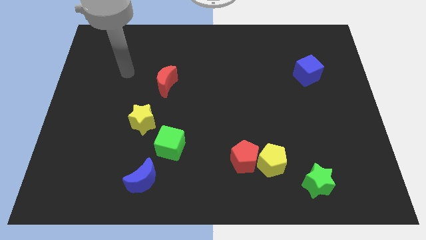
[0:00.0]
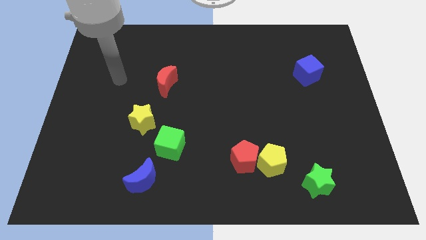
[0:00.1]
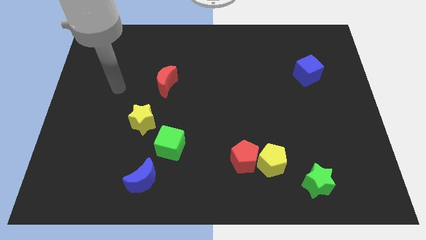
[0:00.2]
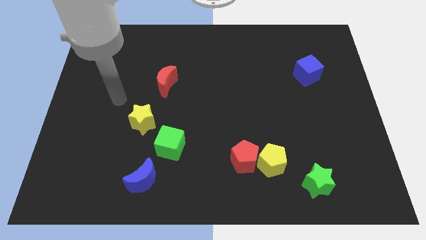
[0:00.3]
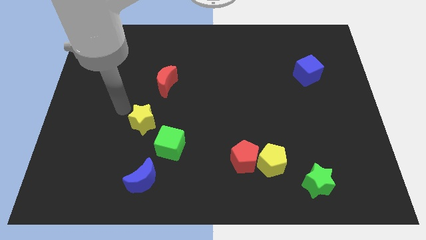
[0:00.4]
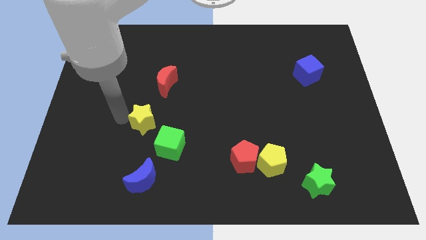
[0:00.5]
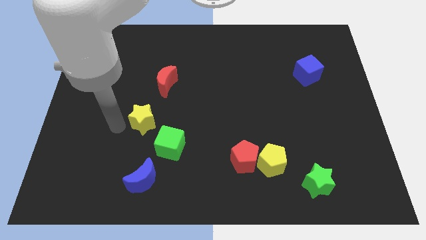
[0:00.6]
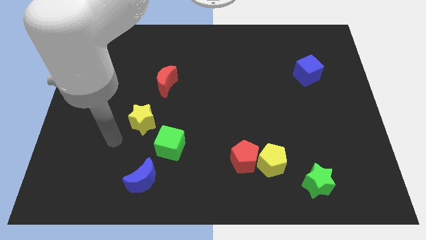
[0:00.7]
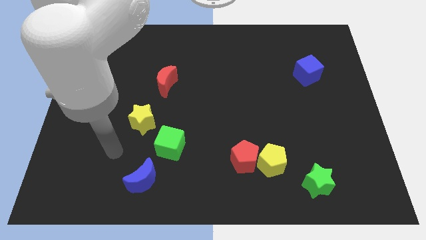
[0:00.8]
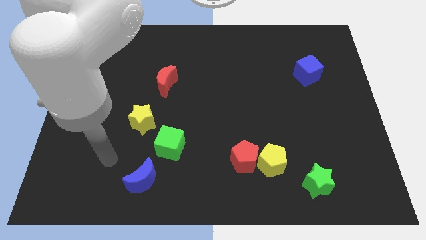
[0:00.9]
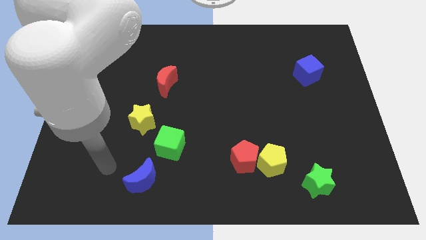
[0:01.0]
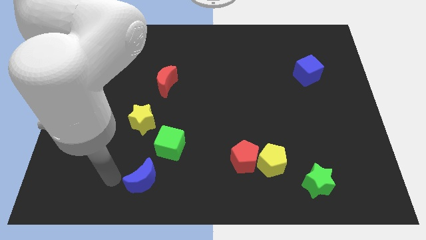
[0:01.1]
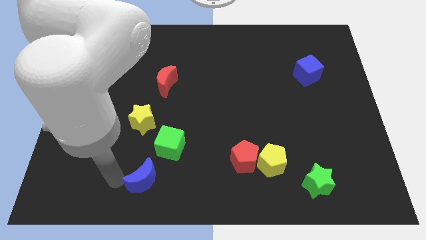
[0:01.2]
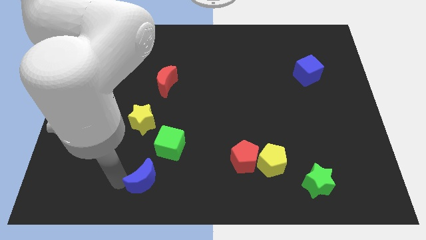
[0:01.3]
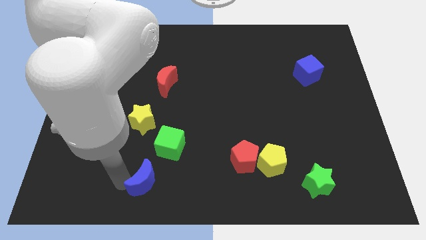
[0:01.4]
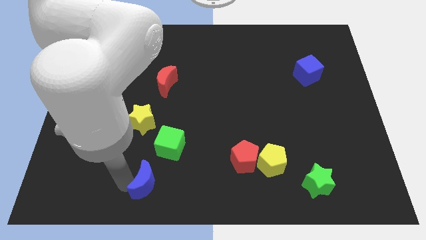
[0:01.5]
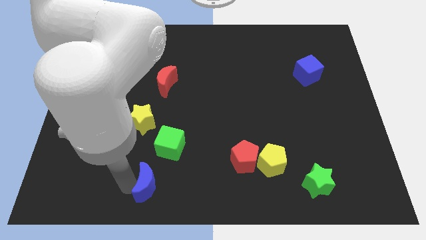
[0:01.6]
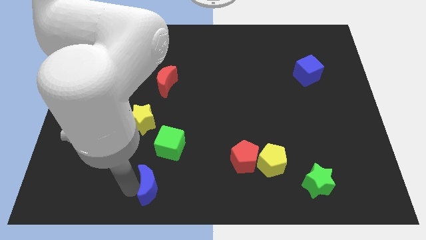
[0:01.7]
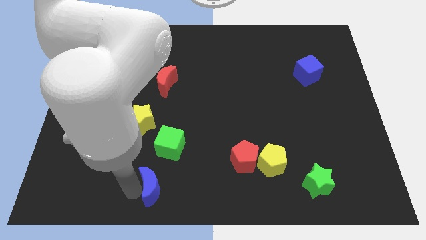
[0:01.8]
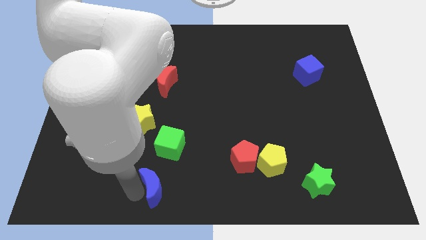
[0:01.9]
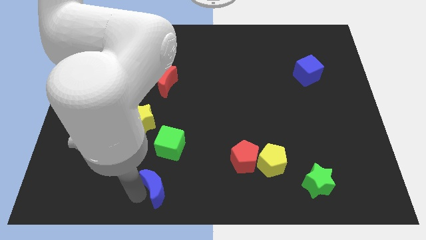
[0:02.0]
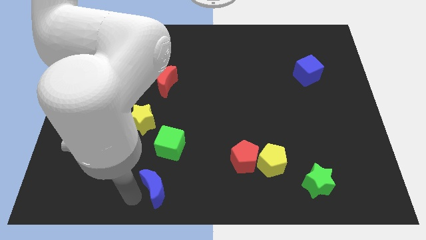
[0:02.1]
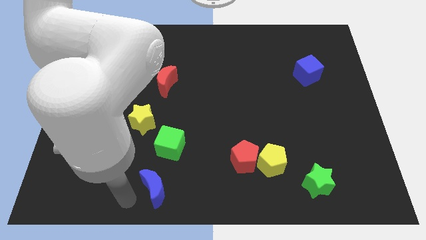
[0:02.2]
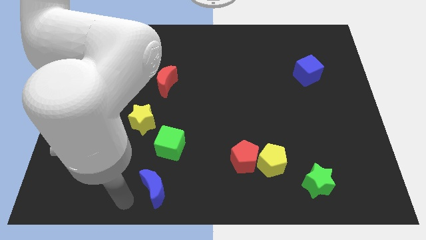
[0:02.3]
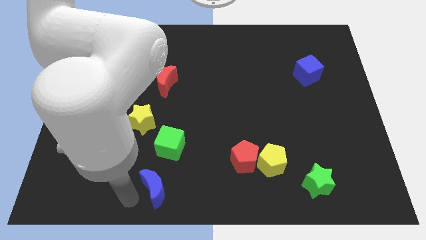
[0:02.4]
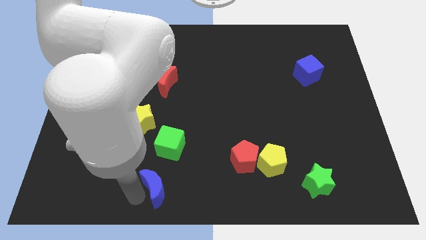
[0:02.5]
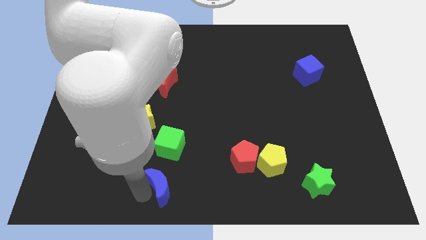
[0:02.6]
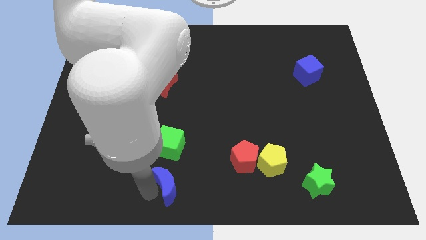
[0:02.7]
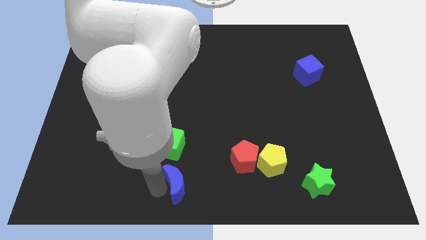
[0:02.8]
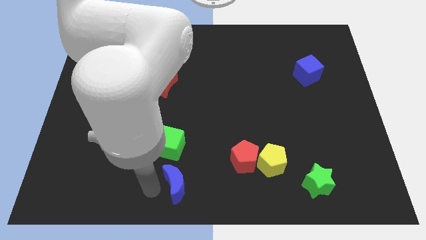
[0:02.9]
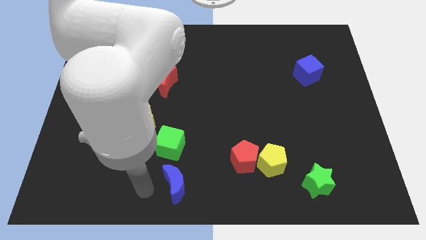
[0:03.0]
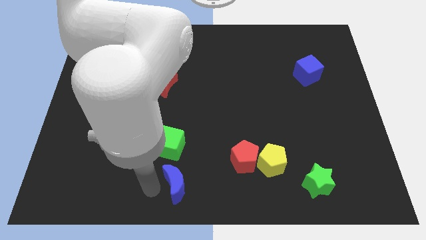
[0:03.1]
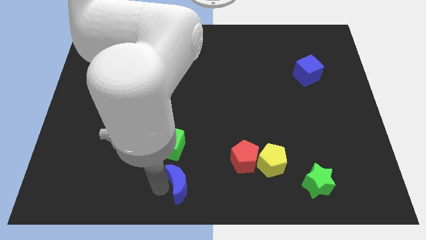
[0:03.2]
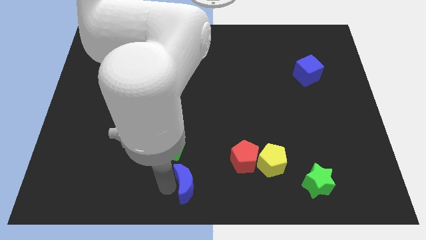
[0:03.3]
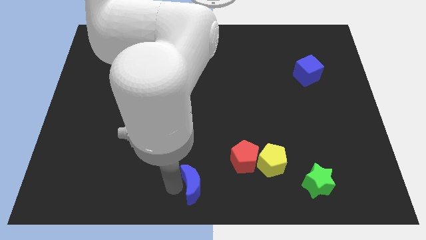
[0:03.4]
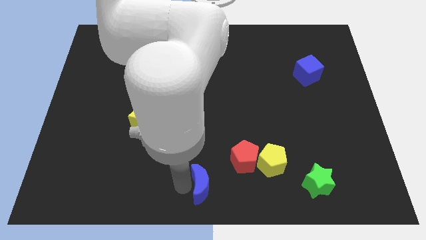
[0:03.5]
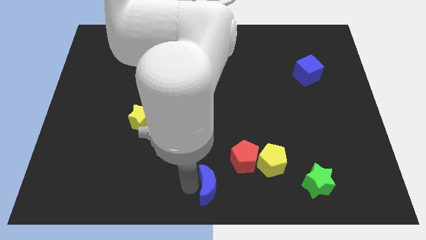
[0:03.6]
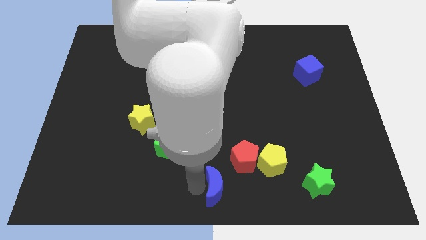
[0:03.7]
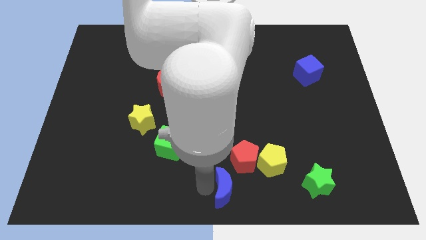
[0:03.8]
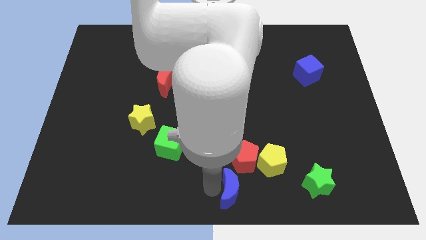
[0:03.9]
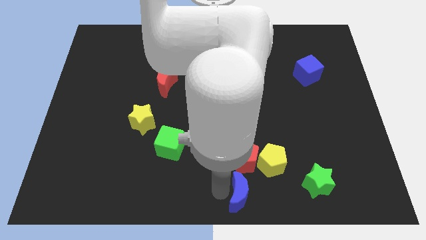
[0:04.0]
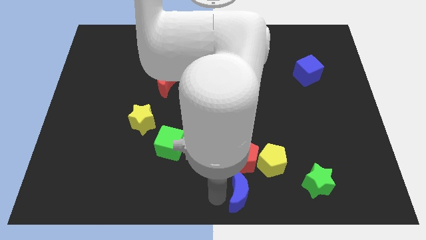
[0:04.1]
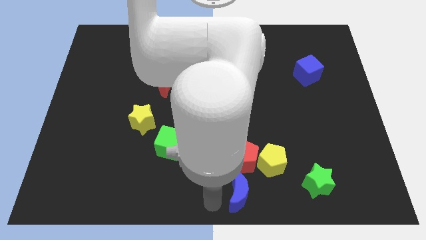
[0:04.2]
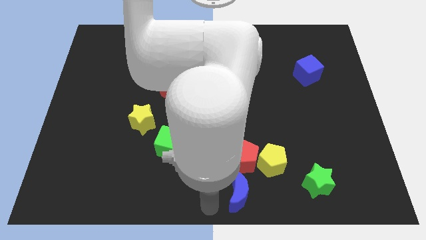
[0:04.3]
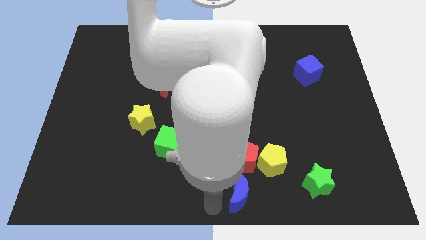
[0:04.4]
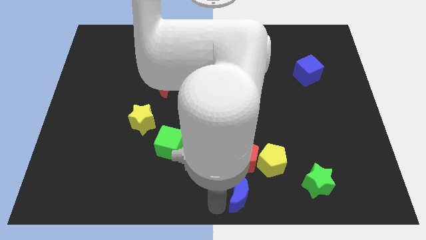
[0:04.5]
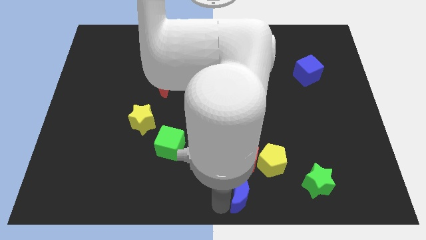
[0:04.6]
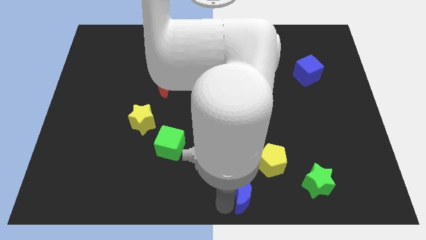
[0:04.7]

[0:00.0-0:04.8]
slide the blue moon to the left side of the green star

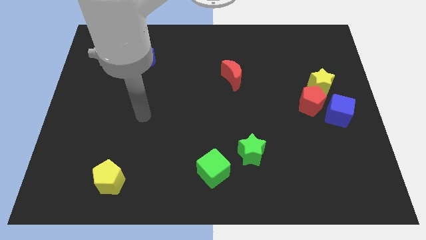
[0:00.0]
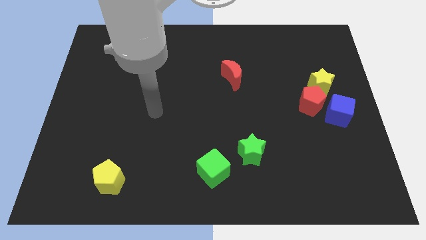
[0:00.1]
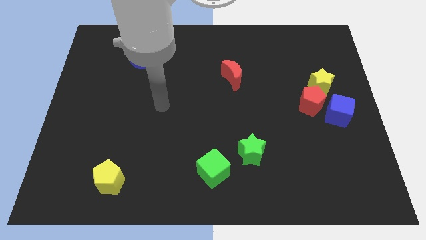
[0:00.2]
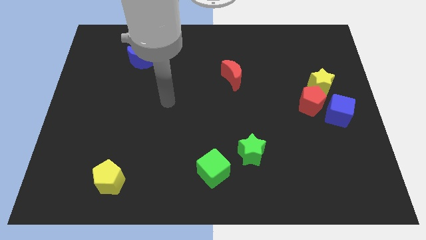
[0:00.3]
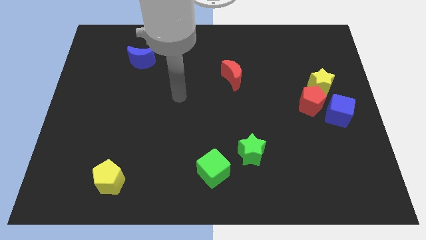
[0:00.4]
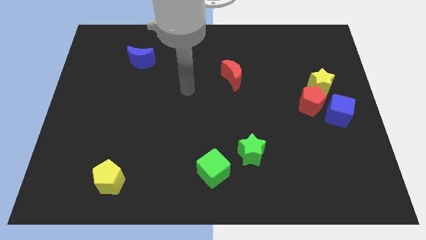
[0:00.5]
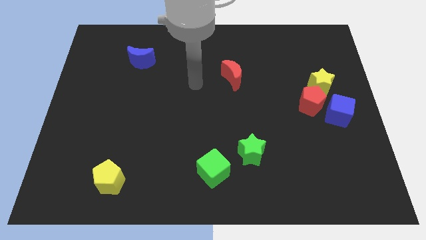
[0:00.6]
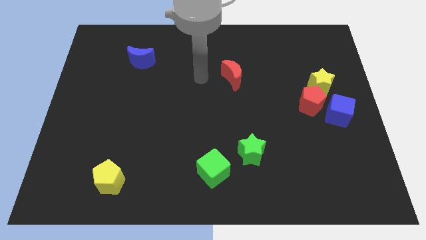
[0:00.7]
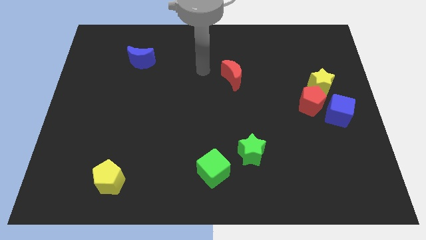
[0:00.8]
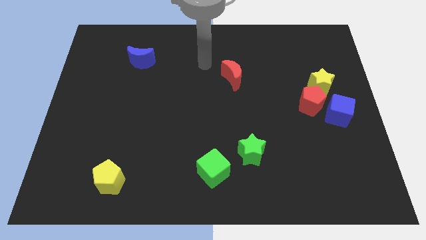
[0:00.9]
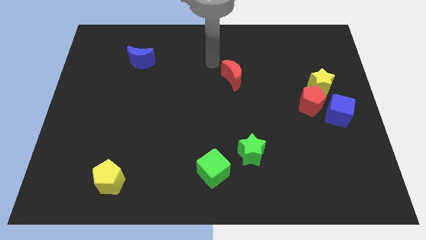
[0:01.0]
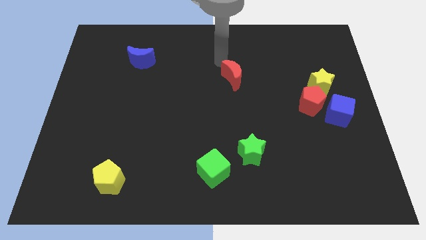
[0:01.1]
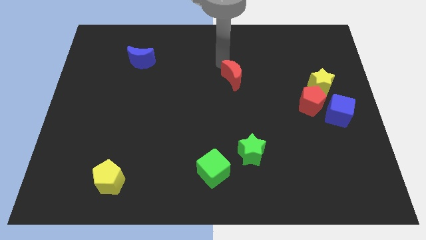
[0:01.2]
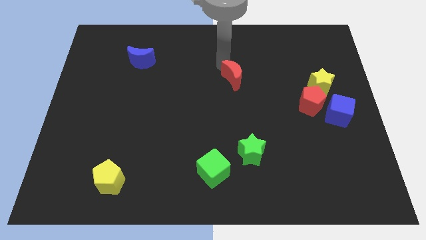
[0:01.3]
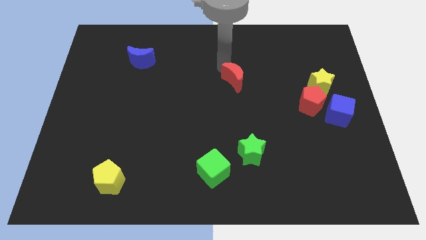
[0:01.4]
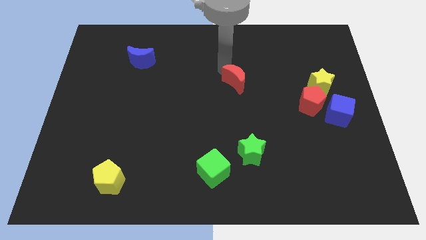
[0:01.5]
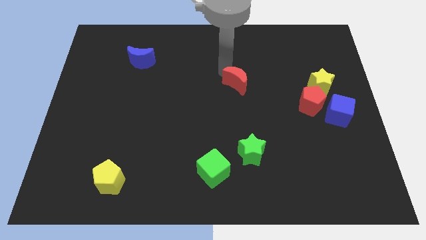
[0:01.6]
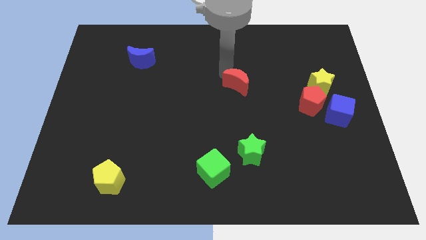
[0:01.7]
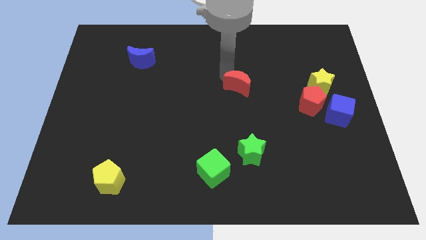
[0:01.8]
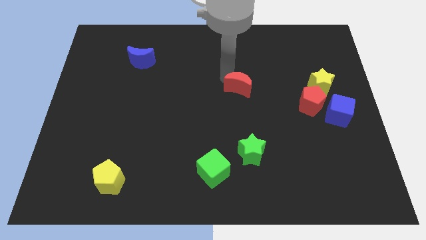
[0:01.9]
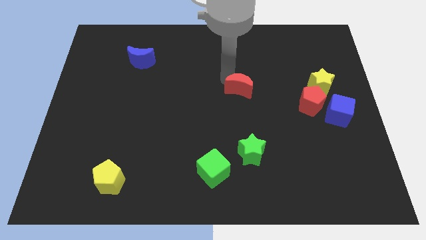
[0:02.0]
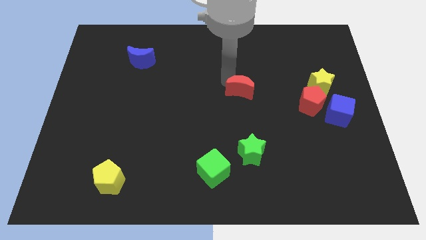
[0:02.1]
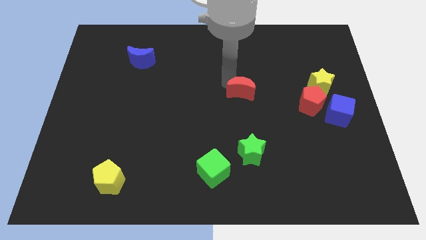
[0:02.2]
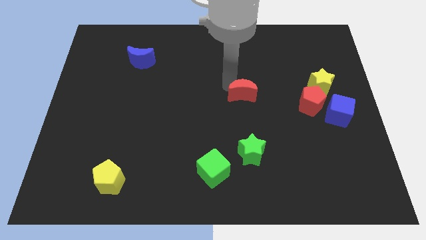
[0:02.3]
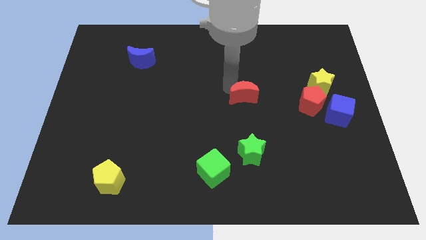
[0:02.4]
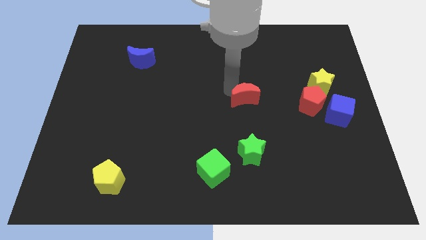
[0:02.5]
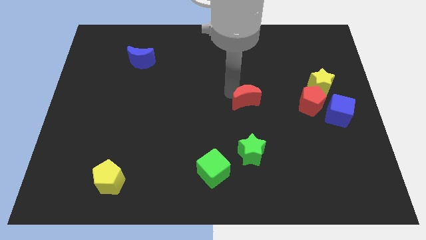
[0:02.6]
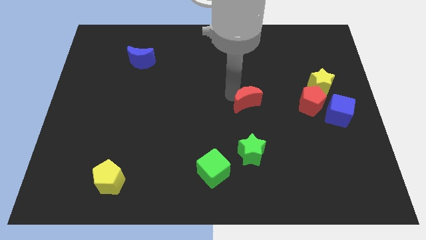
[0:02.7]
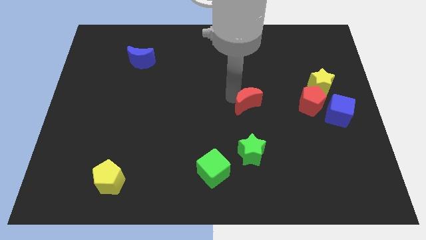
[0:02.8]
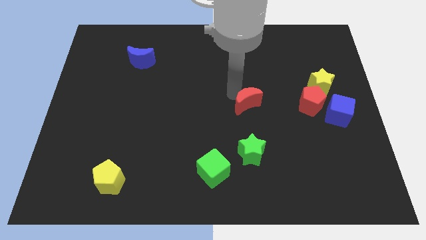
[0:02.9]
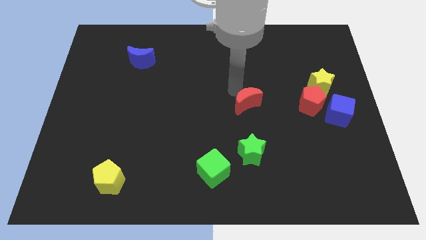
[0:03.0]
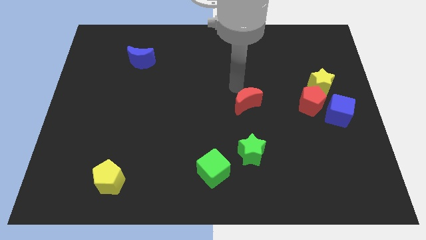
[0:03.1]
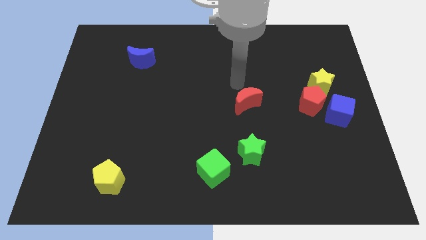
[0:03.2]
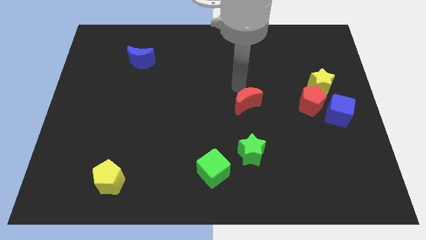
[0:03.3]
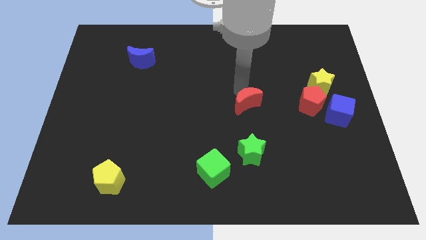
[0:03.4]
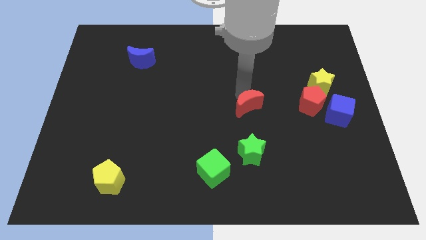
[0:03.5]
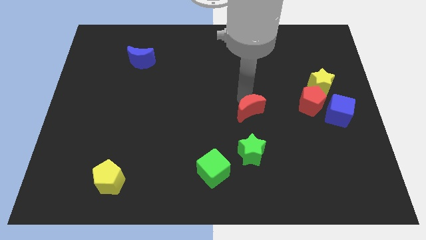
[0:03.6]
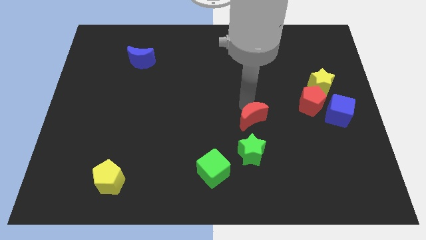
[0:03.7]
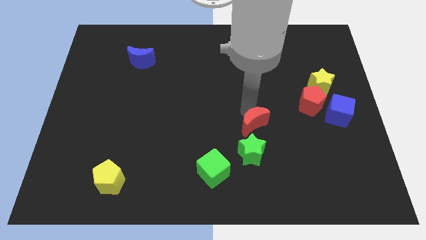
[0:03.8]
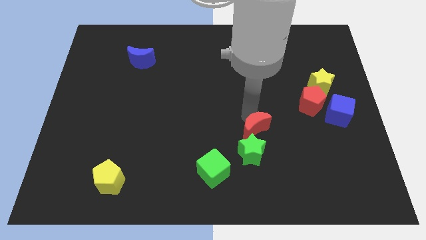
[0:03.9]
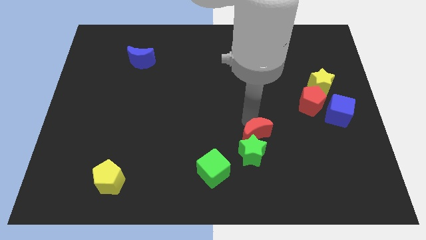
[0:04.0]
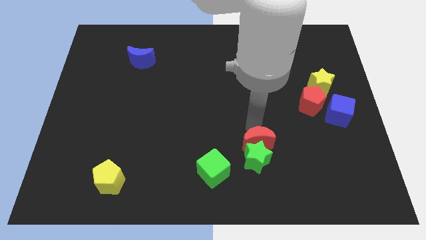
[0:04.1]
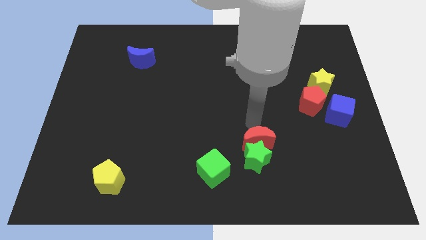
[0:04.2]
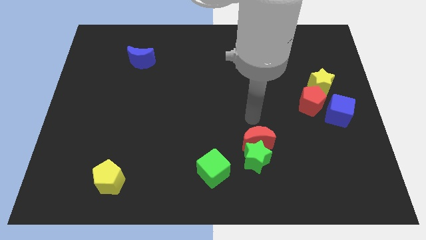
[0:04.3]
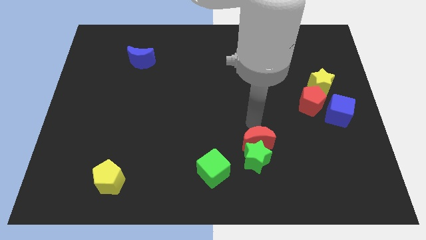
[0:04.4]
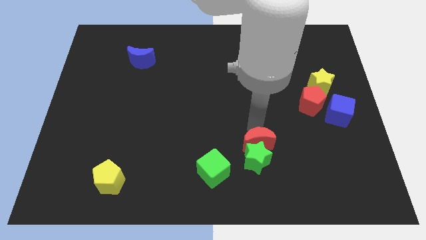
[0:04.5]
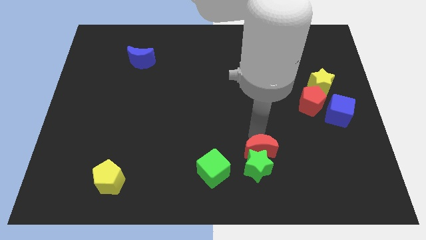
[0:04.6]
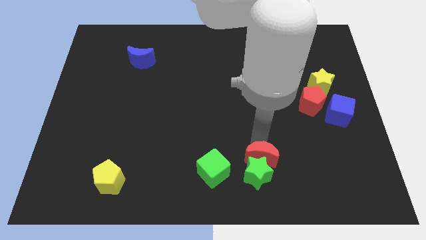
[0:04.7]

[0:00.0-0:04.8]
push the red moon to the right of the green cube
